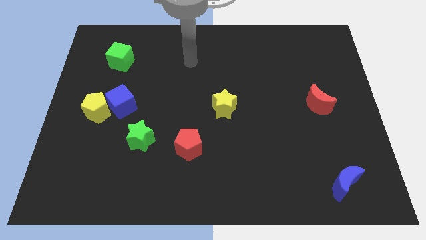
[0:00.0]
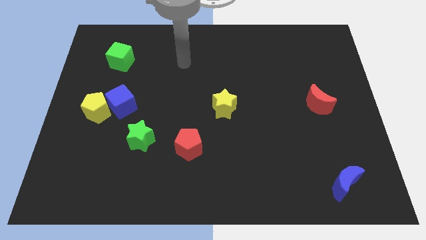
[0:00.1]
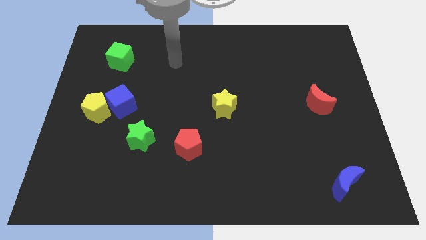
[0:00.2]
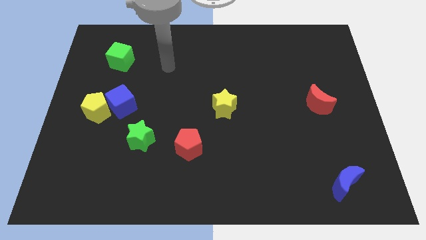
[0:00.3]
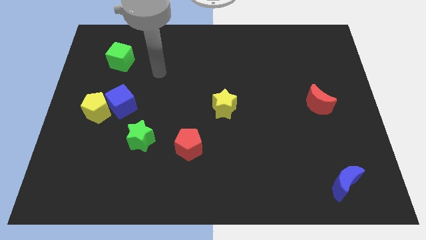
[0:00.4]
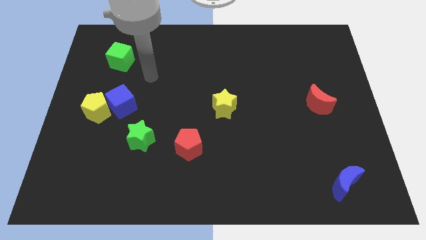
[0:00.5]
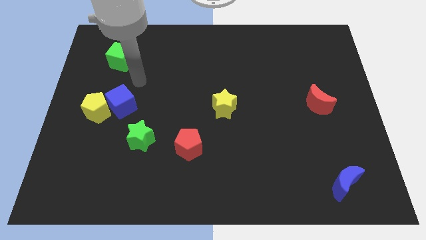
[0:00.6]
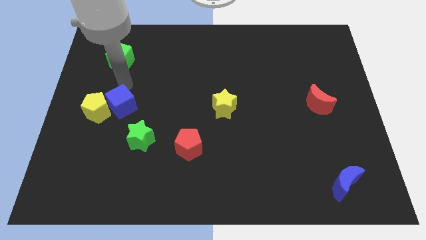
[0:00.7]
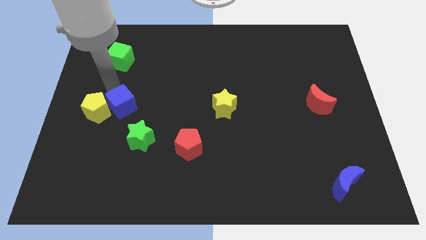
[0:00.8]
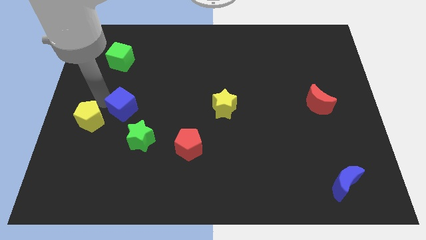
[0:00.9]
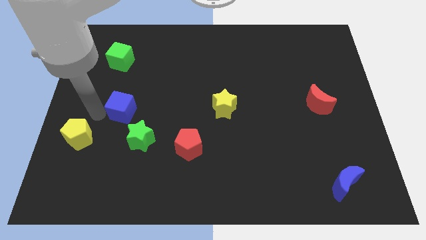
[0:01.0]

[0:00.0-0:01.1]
pull the blue cube apart from the yellow pentagon

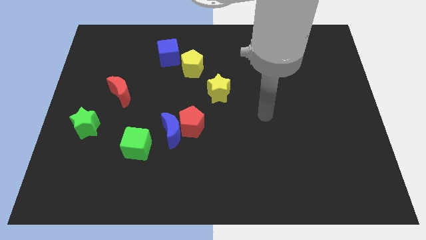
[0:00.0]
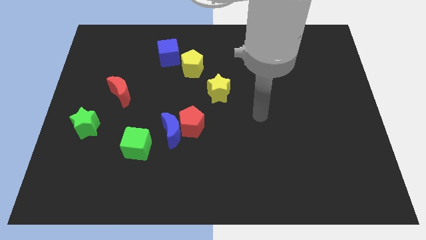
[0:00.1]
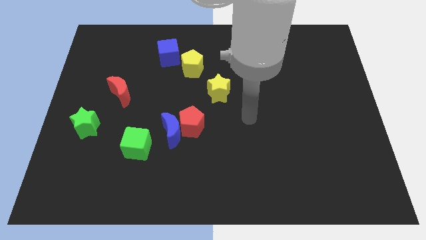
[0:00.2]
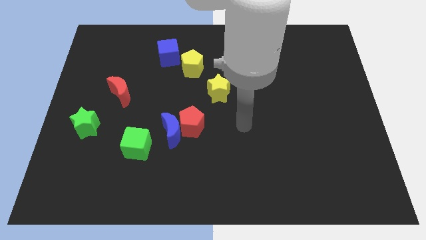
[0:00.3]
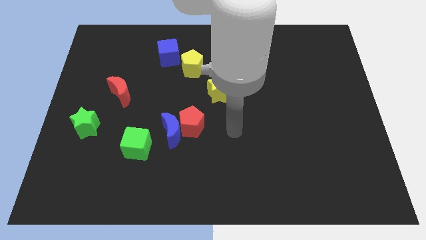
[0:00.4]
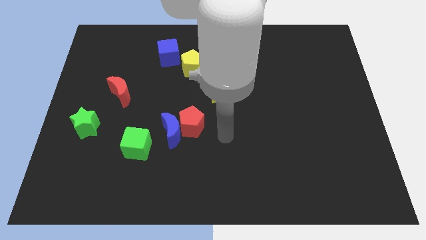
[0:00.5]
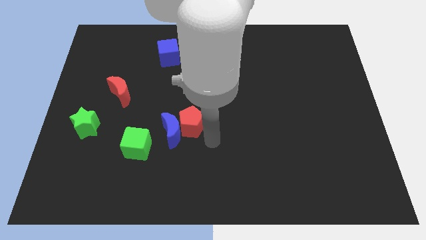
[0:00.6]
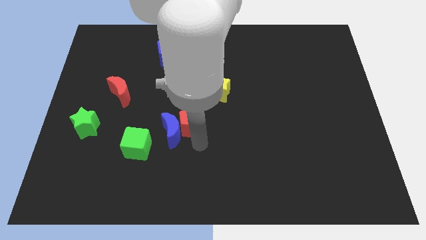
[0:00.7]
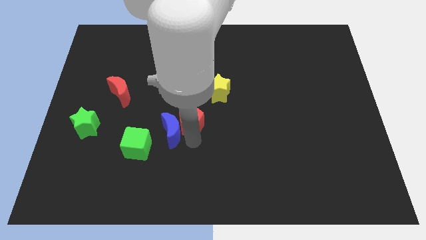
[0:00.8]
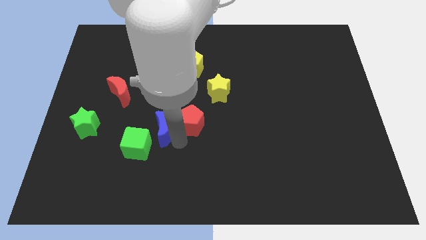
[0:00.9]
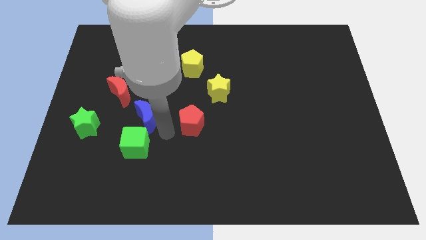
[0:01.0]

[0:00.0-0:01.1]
move the red pentagon away from the blue moon

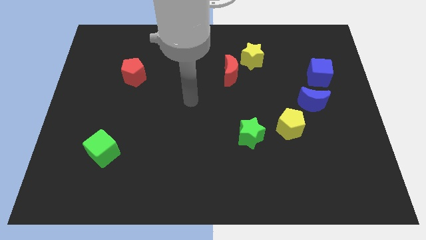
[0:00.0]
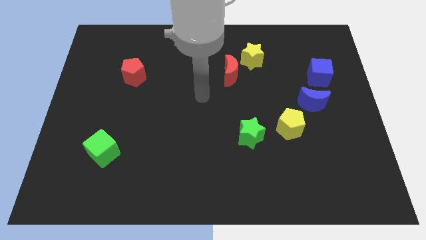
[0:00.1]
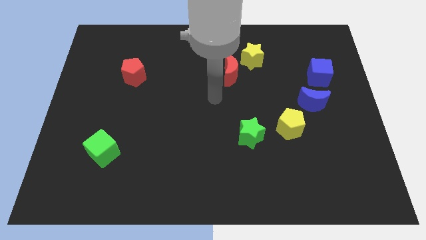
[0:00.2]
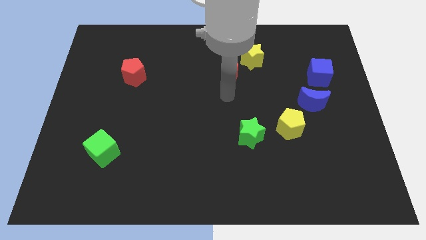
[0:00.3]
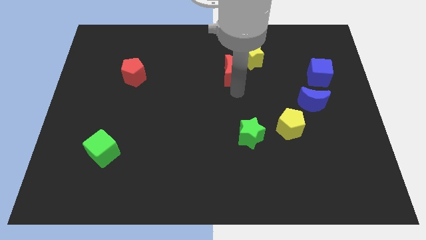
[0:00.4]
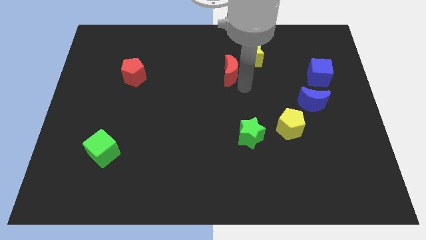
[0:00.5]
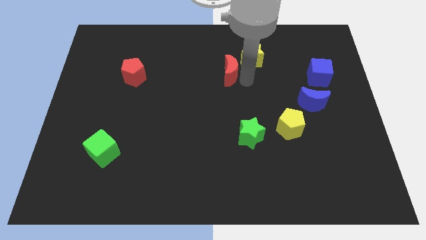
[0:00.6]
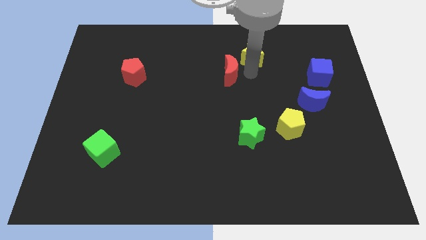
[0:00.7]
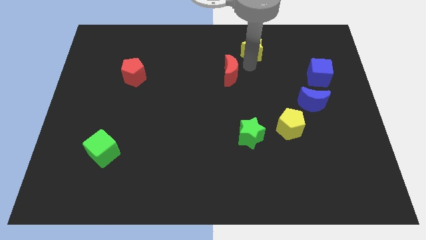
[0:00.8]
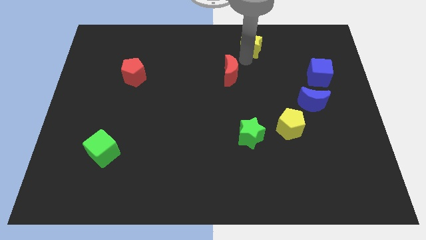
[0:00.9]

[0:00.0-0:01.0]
separate the red moon from the yellow star

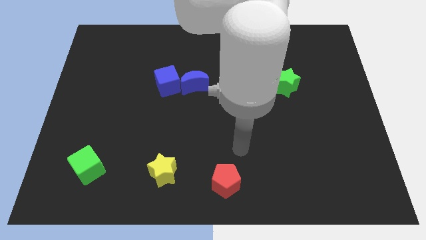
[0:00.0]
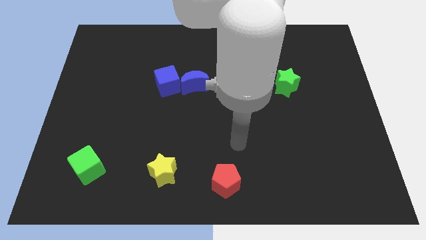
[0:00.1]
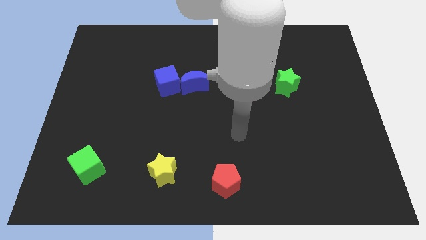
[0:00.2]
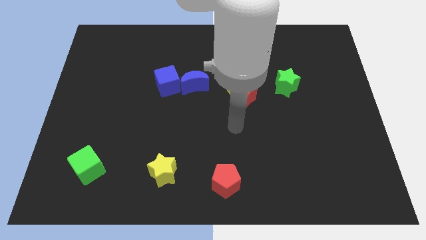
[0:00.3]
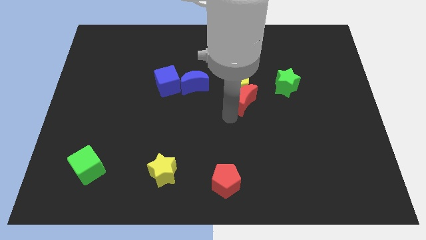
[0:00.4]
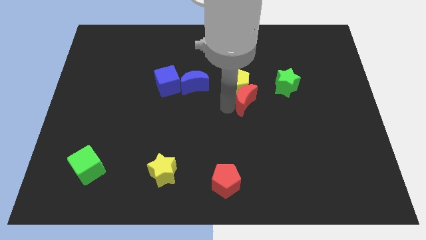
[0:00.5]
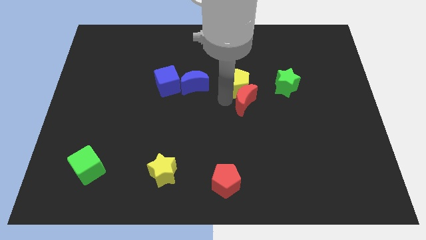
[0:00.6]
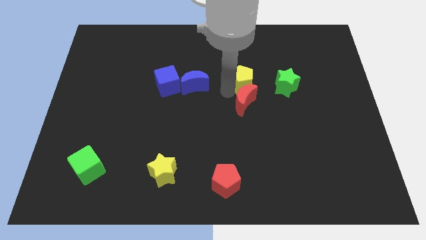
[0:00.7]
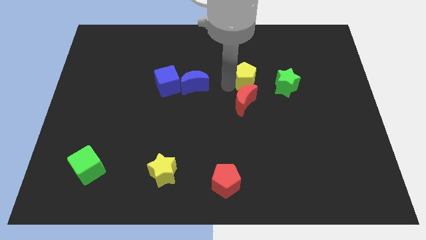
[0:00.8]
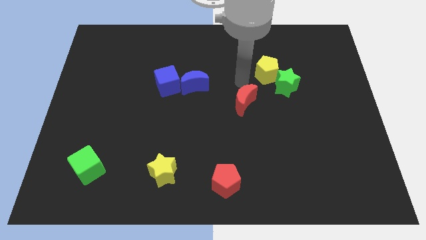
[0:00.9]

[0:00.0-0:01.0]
pull the red moon apart from the yellow pentagon

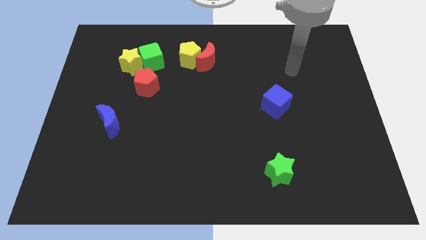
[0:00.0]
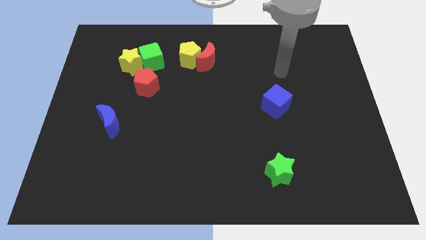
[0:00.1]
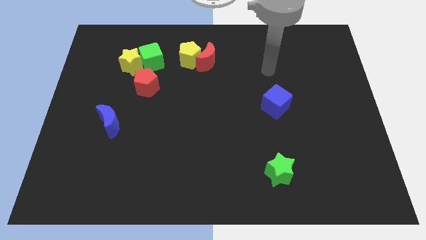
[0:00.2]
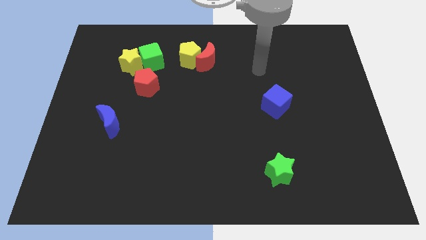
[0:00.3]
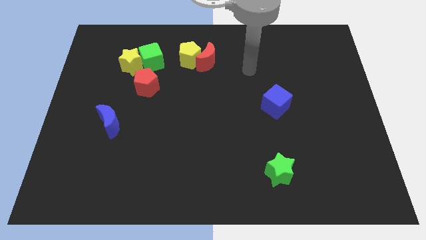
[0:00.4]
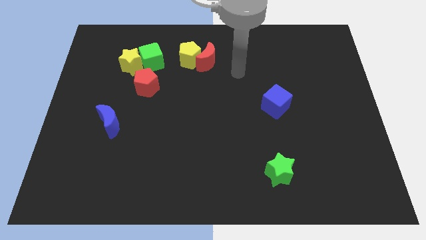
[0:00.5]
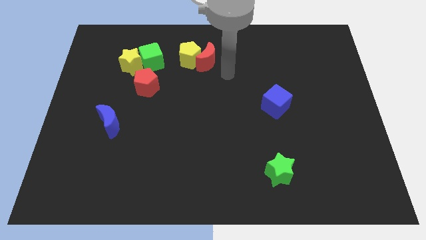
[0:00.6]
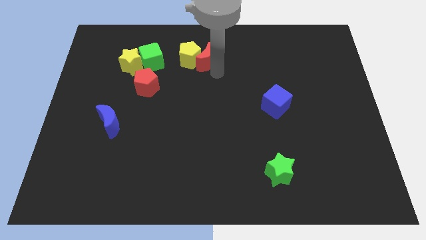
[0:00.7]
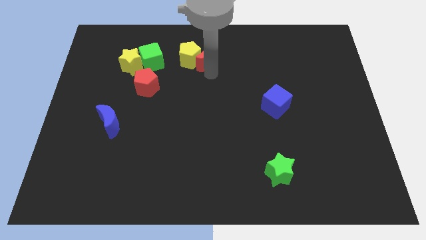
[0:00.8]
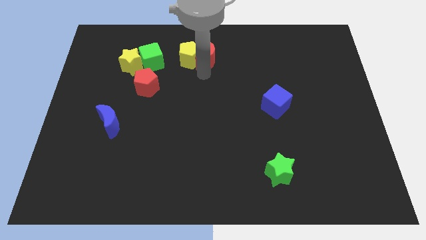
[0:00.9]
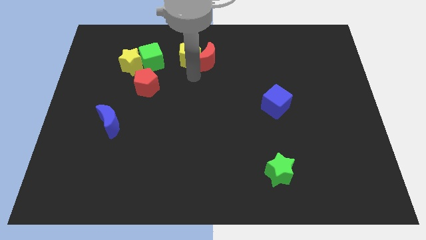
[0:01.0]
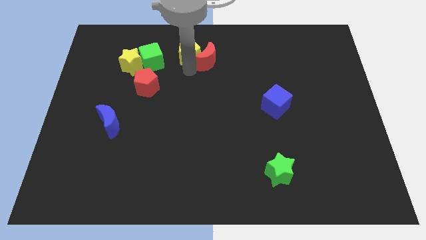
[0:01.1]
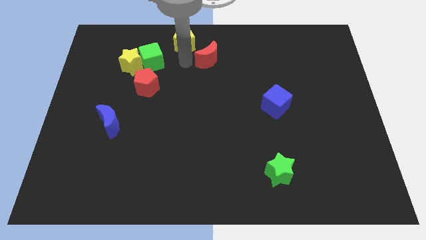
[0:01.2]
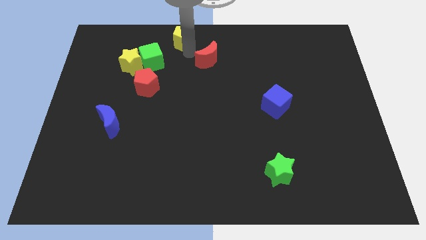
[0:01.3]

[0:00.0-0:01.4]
move the red moon away from the yellow pentagon

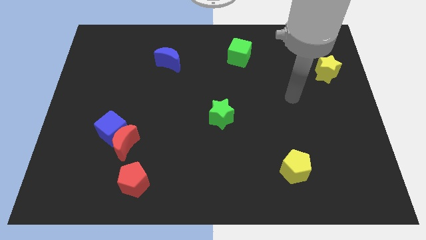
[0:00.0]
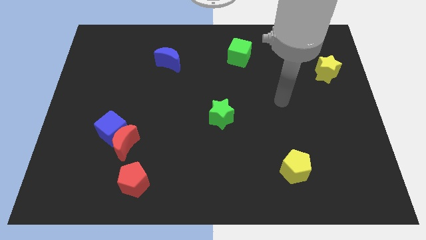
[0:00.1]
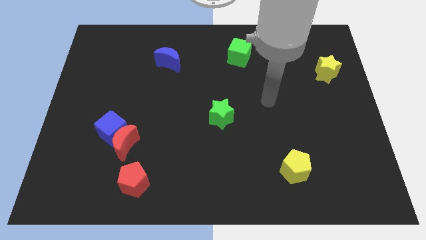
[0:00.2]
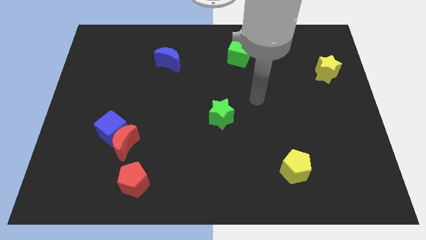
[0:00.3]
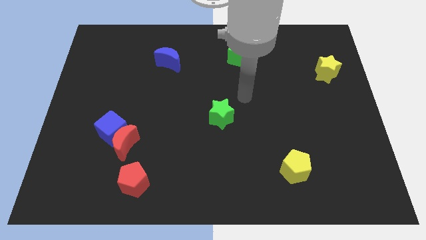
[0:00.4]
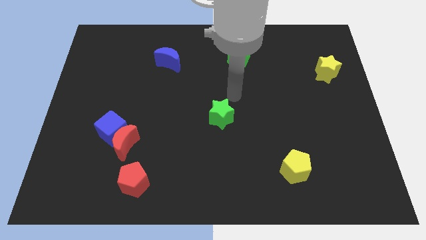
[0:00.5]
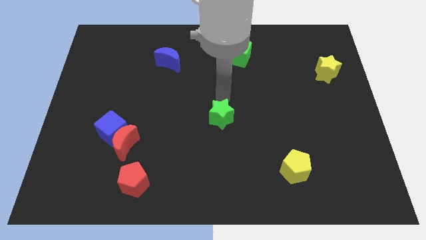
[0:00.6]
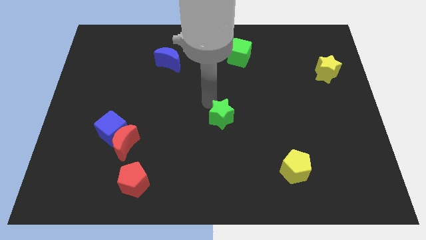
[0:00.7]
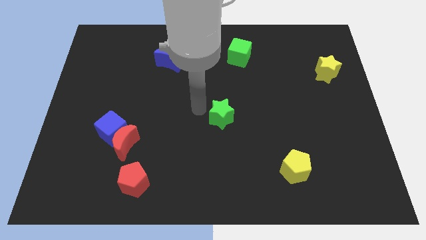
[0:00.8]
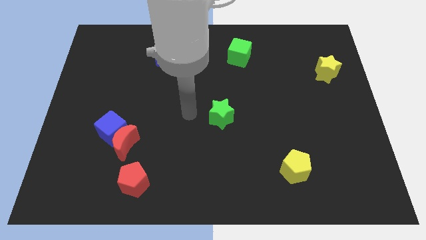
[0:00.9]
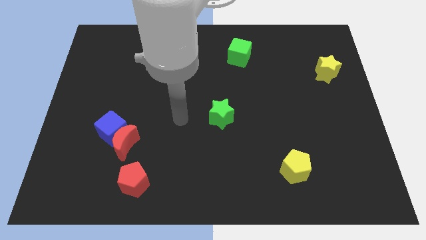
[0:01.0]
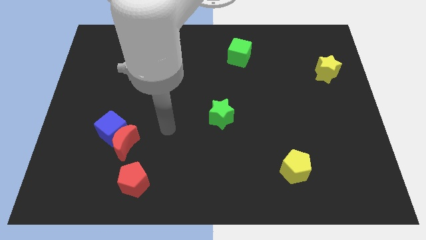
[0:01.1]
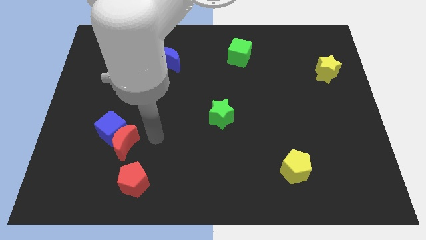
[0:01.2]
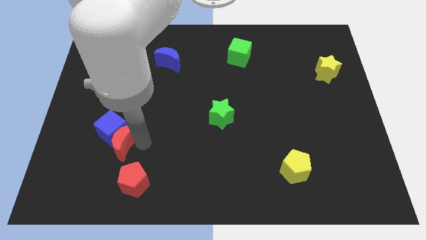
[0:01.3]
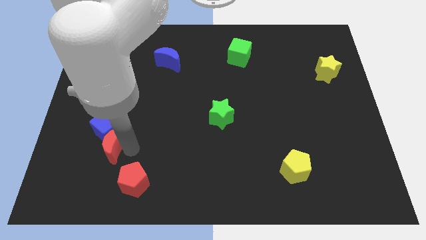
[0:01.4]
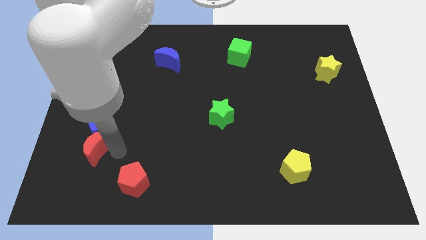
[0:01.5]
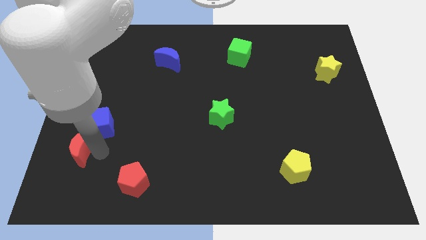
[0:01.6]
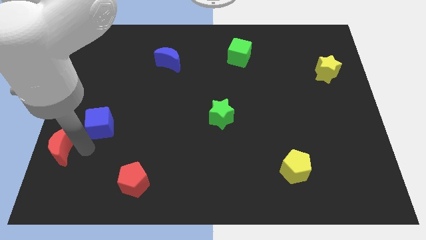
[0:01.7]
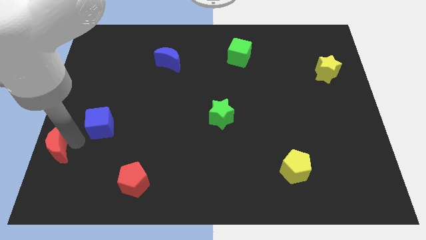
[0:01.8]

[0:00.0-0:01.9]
move the blue cube away from the red moon

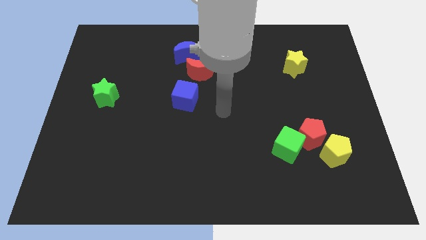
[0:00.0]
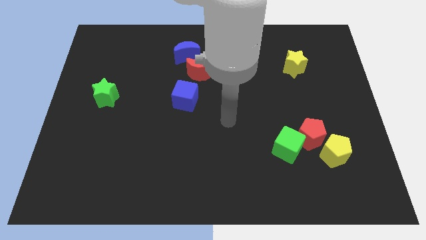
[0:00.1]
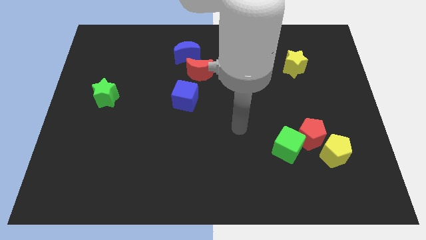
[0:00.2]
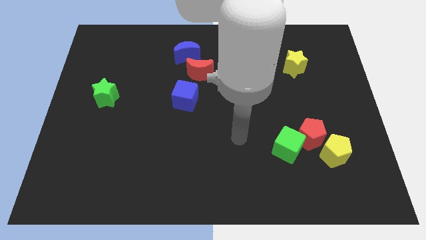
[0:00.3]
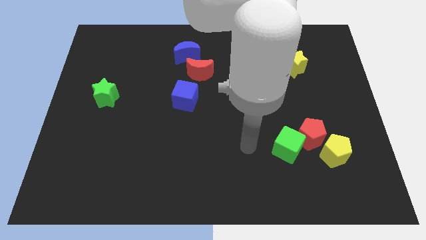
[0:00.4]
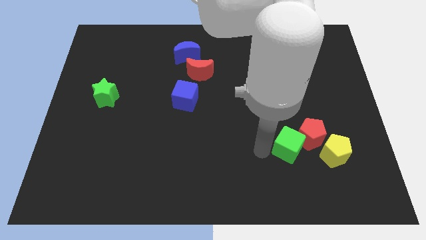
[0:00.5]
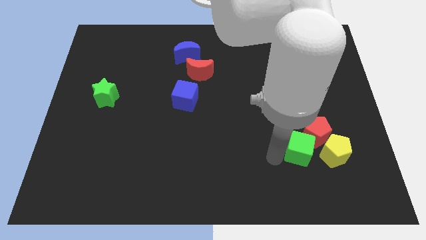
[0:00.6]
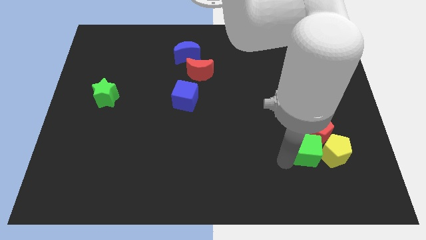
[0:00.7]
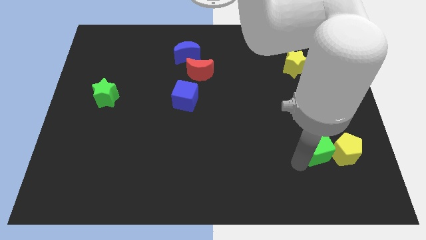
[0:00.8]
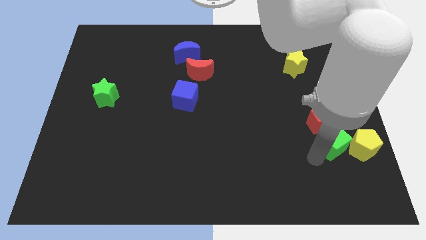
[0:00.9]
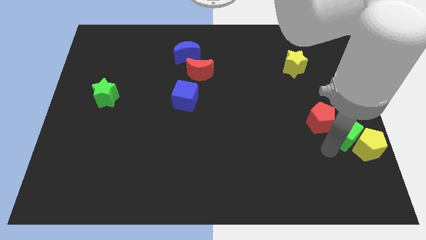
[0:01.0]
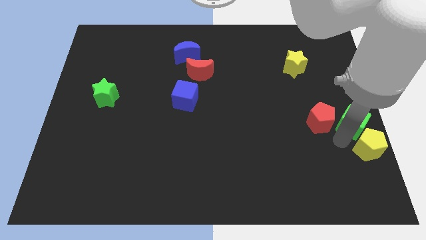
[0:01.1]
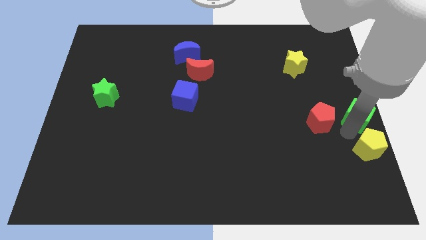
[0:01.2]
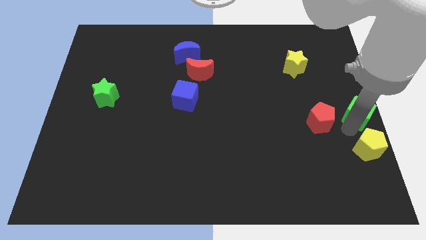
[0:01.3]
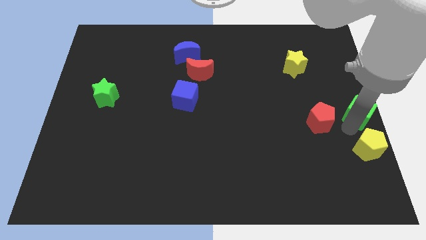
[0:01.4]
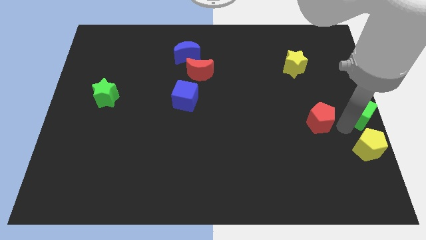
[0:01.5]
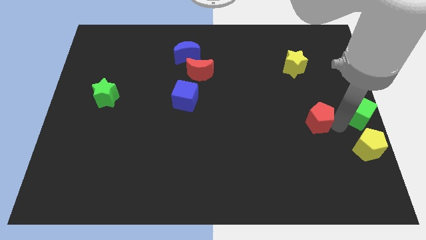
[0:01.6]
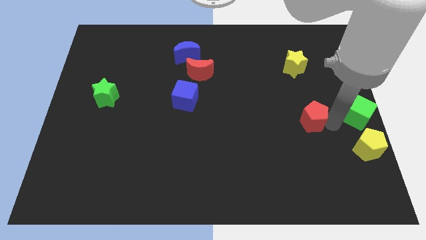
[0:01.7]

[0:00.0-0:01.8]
pull the red pentagon apart from the yellow pentagon and green cube

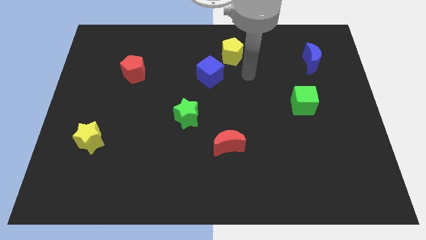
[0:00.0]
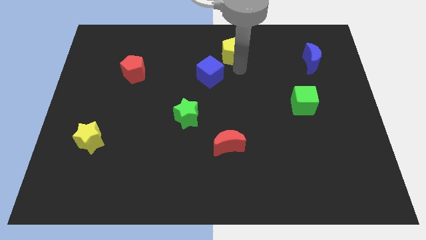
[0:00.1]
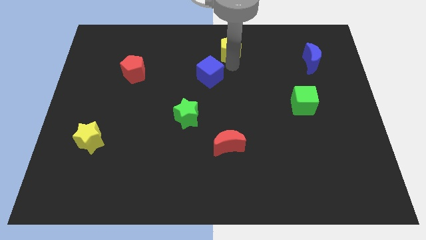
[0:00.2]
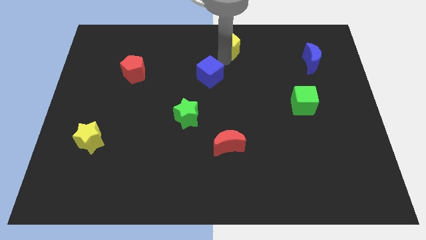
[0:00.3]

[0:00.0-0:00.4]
separate the blue cube from the yellow pentagon
